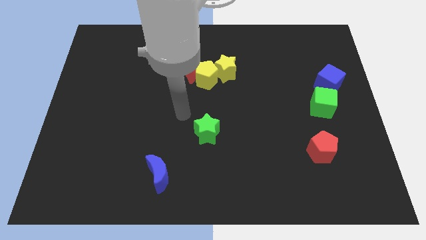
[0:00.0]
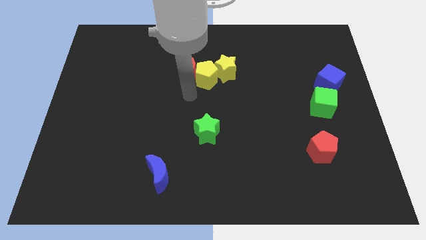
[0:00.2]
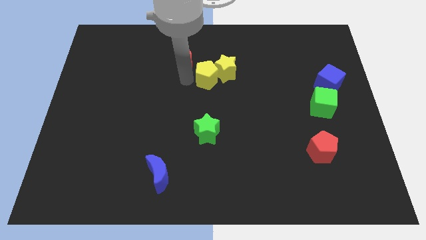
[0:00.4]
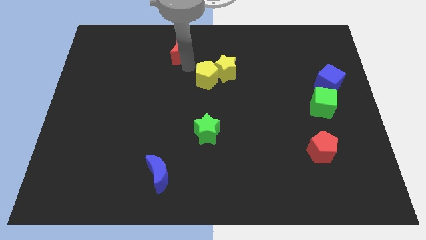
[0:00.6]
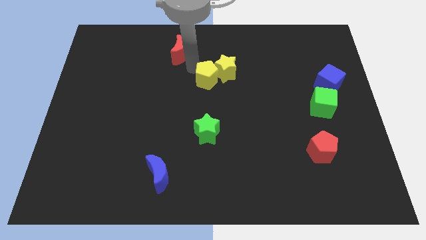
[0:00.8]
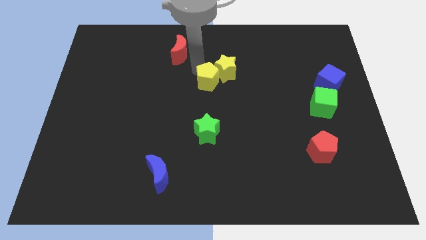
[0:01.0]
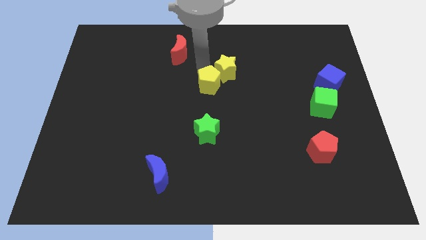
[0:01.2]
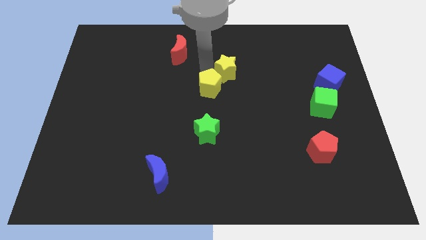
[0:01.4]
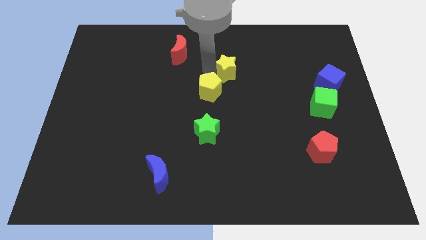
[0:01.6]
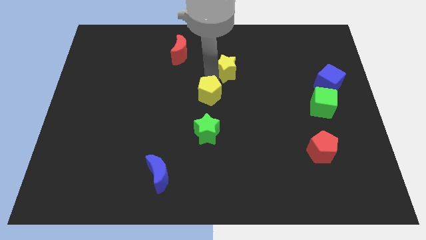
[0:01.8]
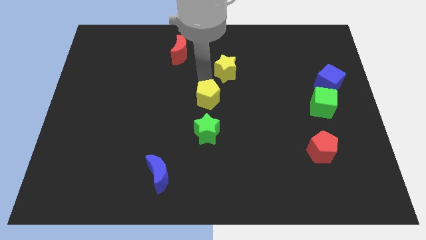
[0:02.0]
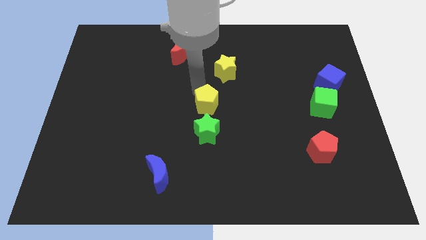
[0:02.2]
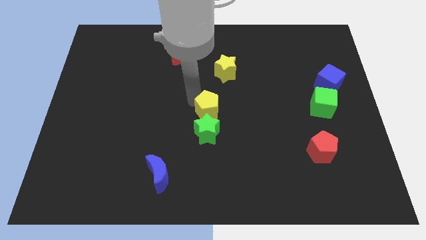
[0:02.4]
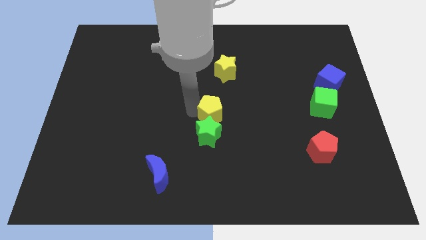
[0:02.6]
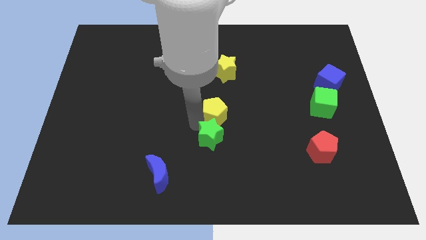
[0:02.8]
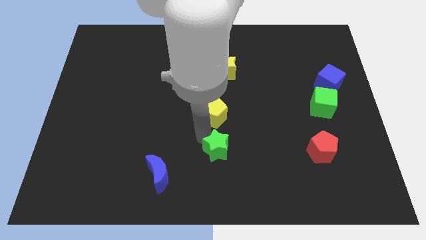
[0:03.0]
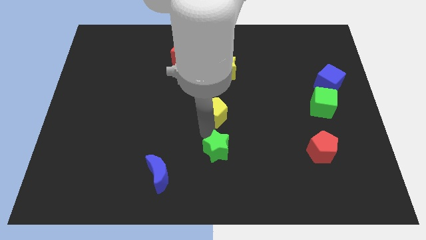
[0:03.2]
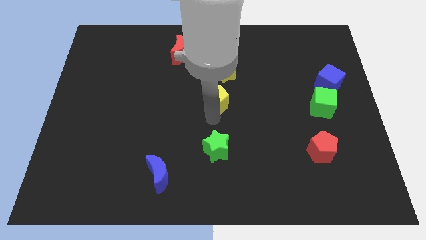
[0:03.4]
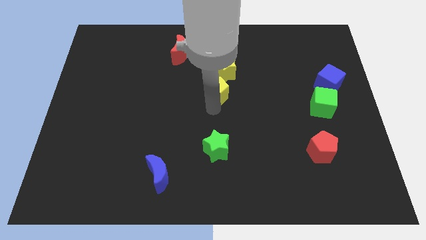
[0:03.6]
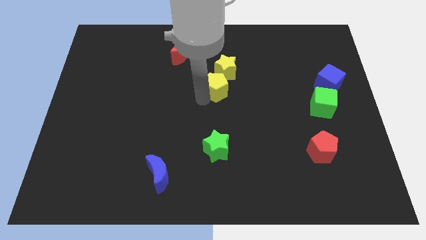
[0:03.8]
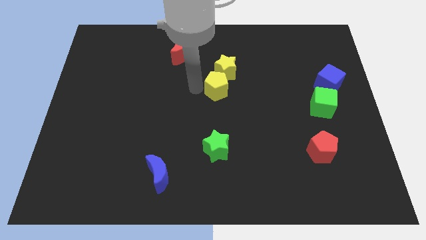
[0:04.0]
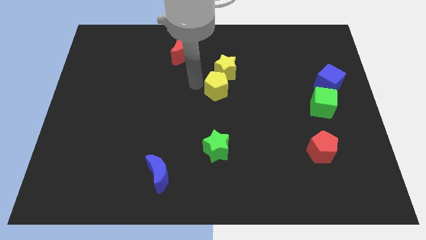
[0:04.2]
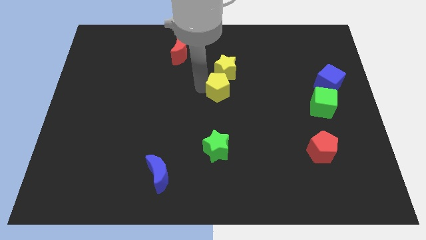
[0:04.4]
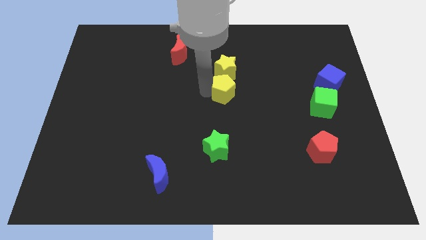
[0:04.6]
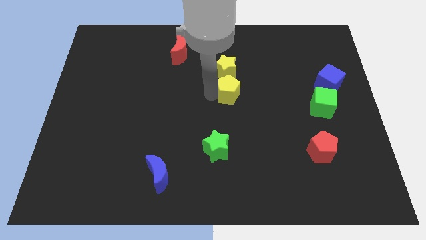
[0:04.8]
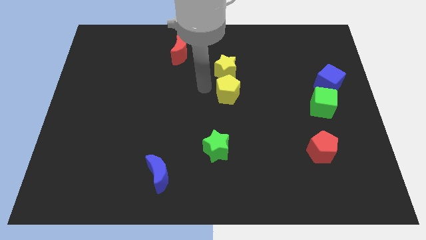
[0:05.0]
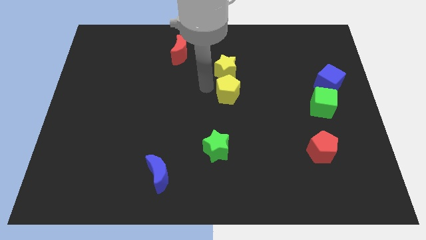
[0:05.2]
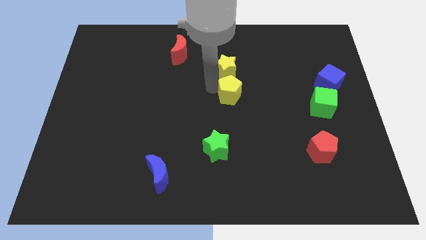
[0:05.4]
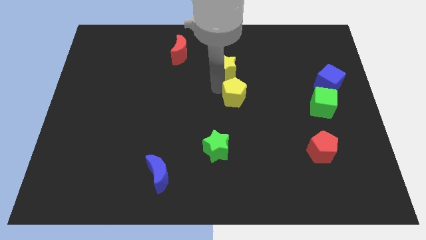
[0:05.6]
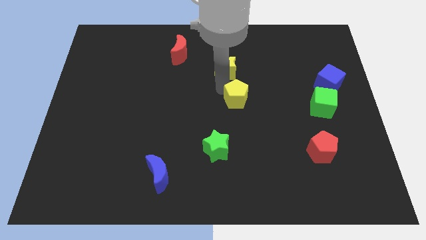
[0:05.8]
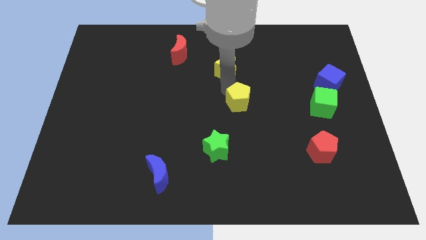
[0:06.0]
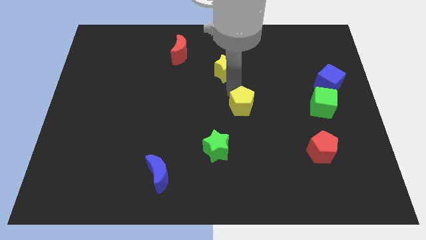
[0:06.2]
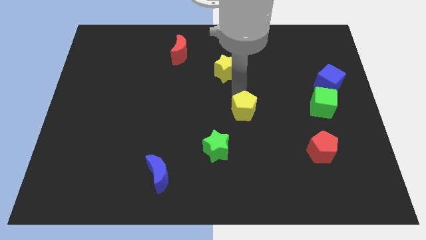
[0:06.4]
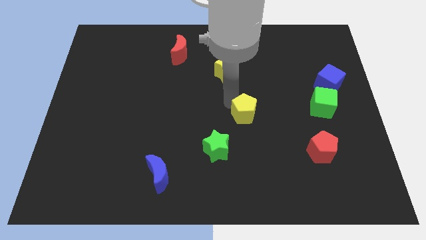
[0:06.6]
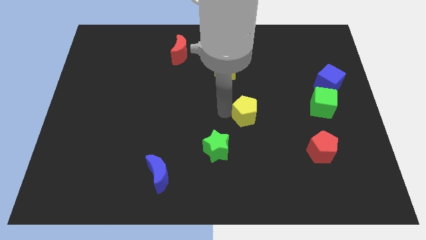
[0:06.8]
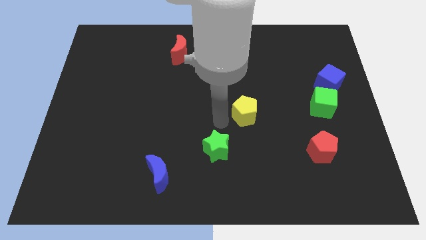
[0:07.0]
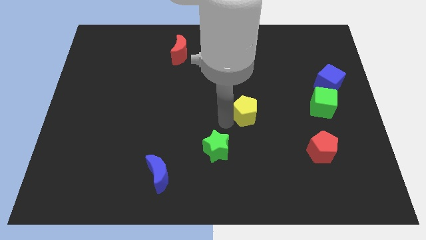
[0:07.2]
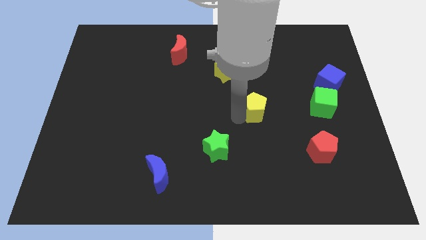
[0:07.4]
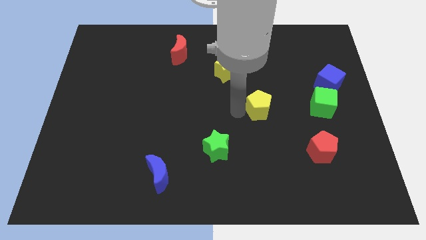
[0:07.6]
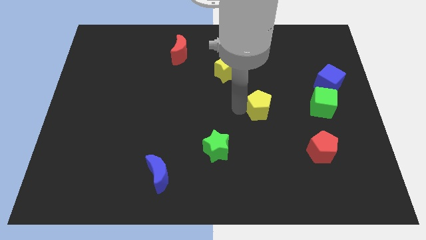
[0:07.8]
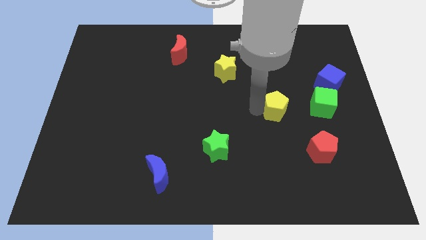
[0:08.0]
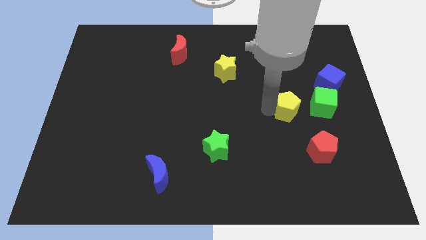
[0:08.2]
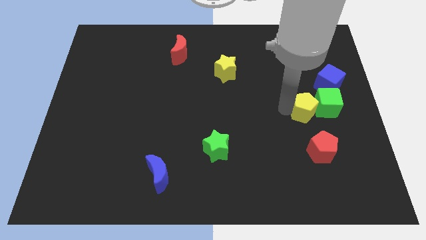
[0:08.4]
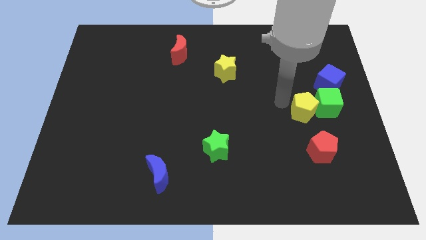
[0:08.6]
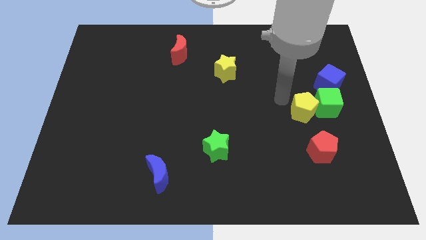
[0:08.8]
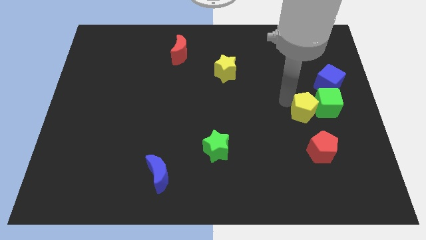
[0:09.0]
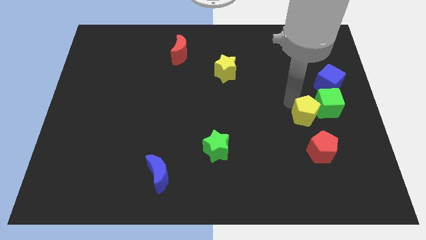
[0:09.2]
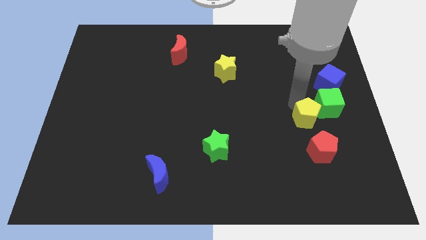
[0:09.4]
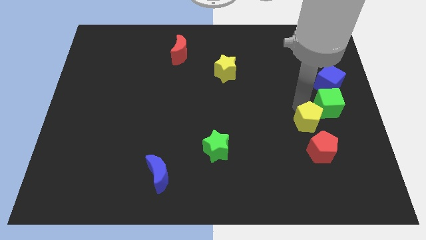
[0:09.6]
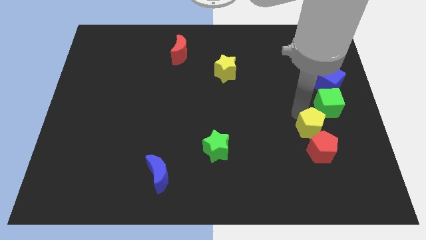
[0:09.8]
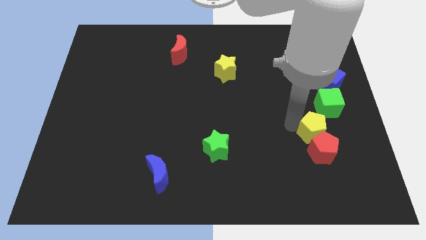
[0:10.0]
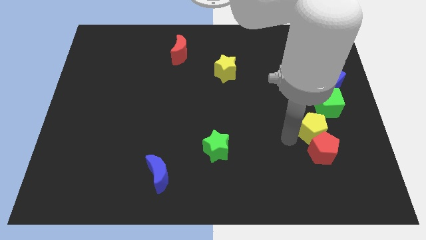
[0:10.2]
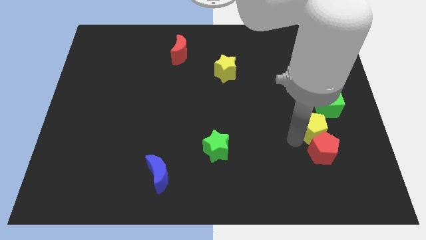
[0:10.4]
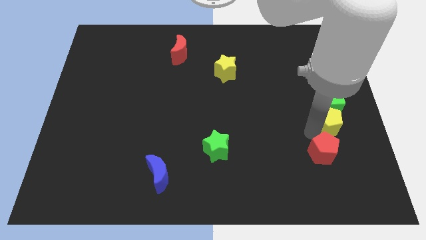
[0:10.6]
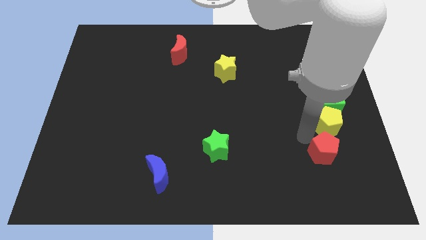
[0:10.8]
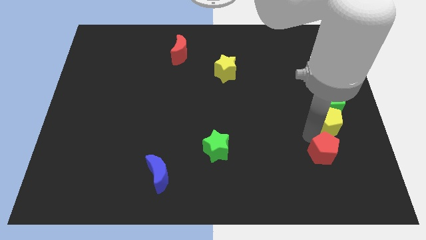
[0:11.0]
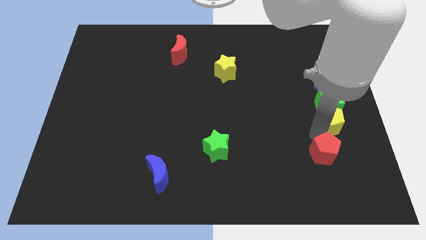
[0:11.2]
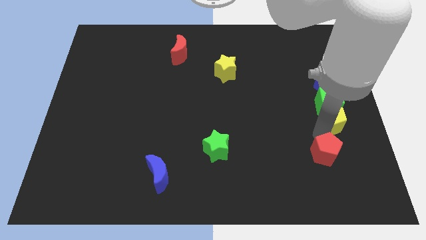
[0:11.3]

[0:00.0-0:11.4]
push the yellow pentagon to the right side of the board

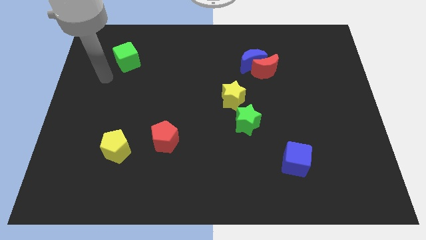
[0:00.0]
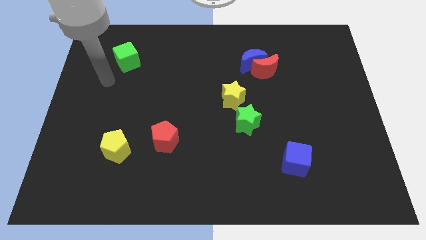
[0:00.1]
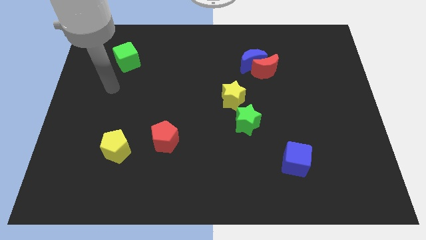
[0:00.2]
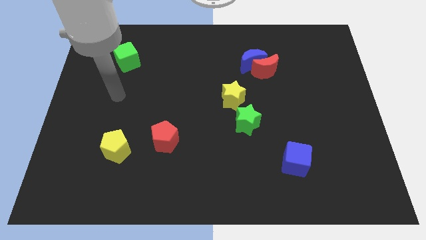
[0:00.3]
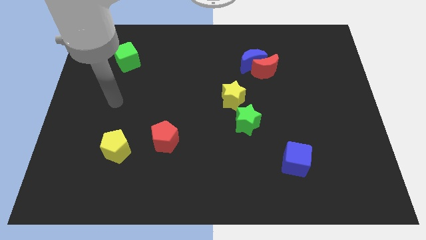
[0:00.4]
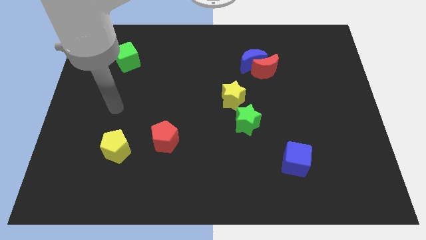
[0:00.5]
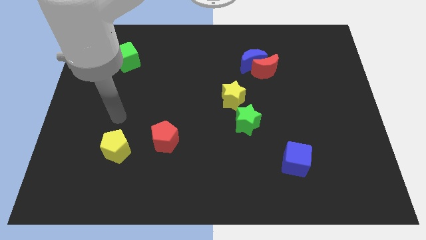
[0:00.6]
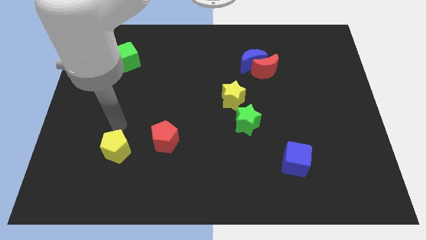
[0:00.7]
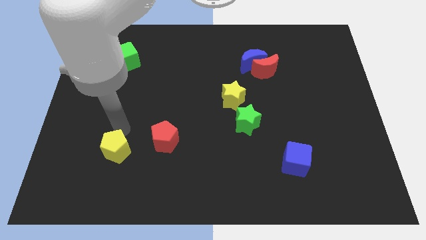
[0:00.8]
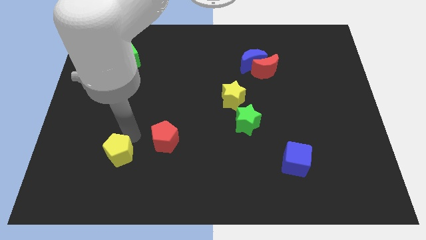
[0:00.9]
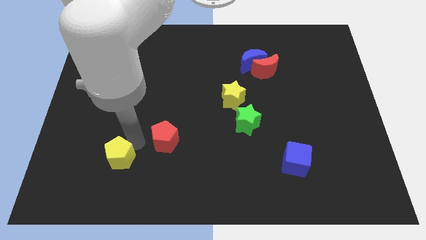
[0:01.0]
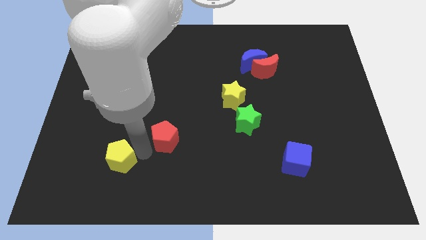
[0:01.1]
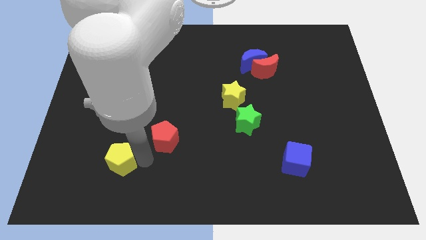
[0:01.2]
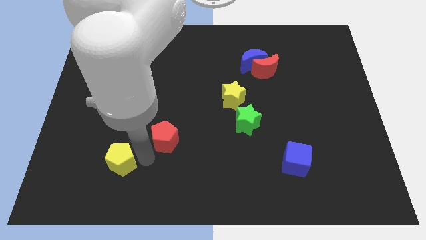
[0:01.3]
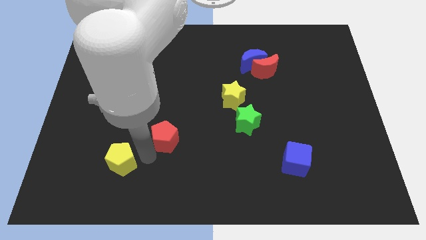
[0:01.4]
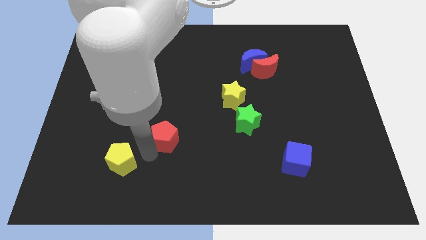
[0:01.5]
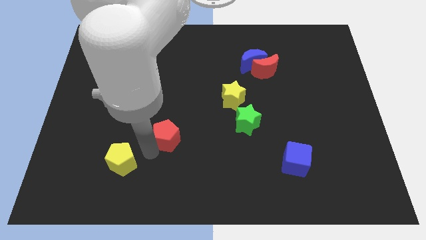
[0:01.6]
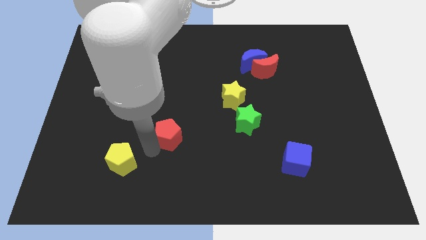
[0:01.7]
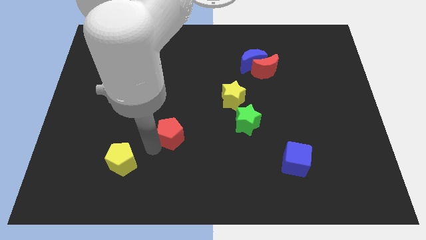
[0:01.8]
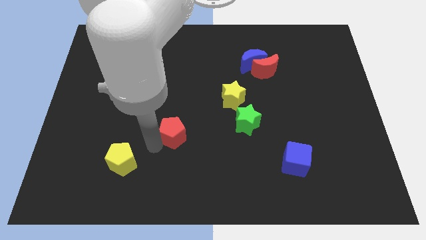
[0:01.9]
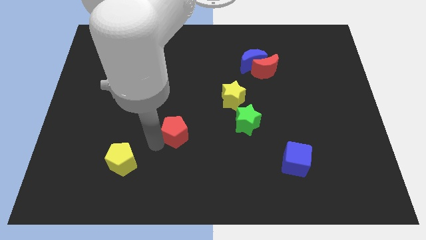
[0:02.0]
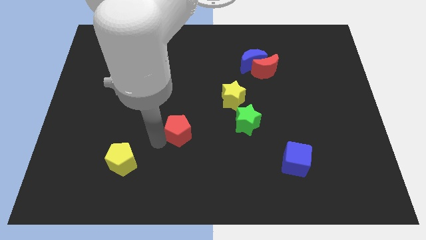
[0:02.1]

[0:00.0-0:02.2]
put the red pentagon to the middle of the board

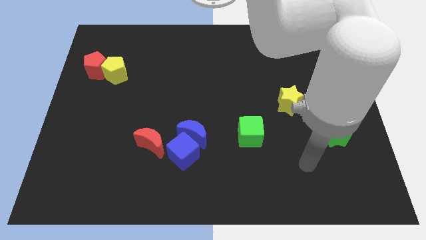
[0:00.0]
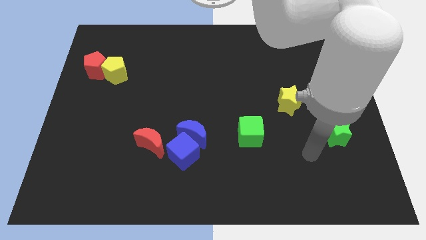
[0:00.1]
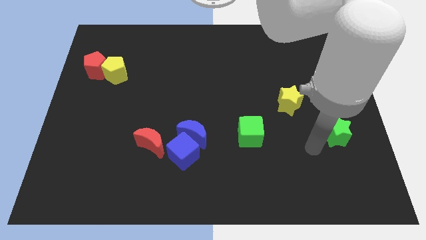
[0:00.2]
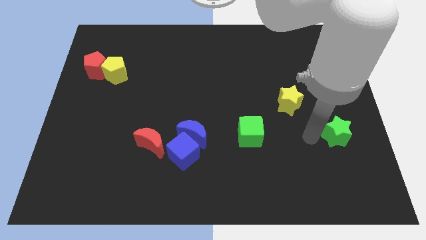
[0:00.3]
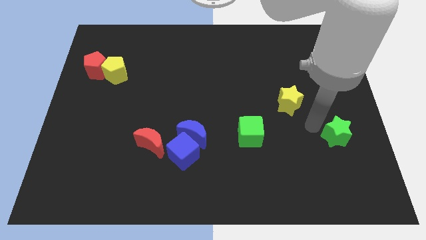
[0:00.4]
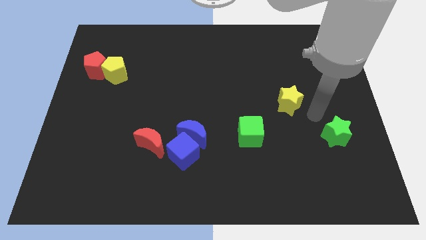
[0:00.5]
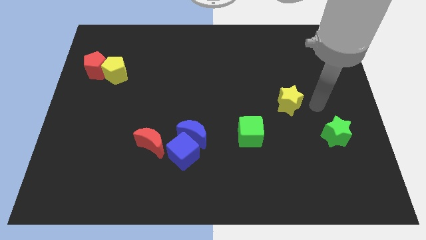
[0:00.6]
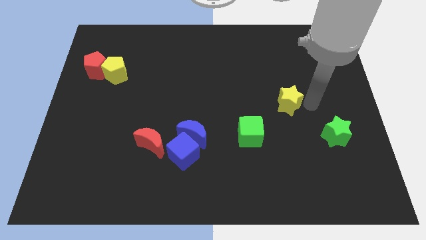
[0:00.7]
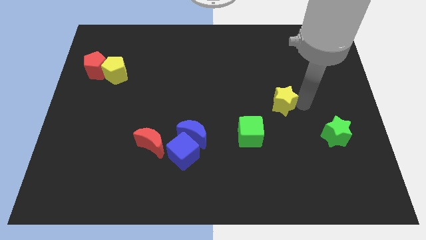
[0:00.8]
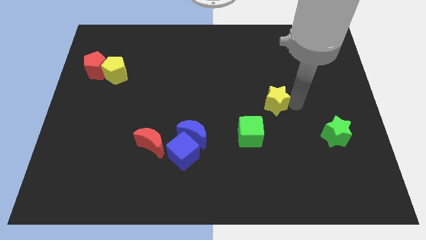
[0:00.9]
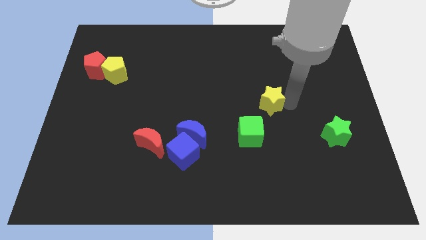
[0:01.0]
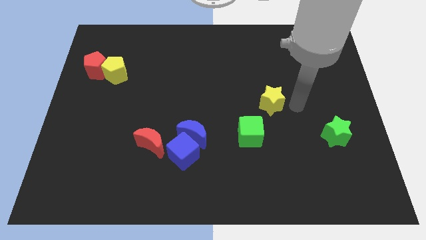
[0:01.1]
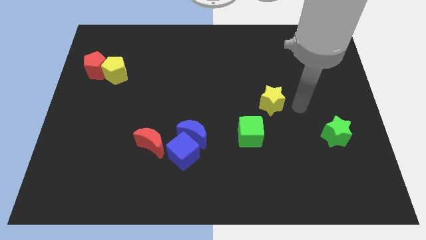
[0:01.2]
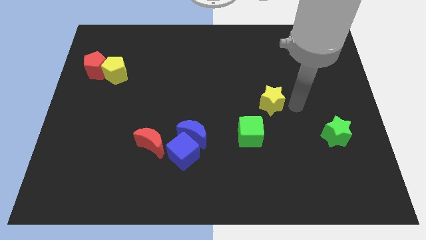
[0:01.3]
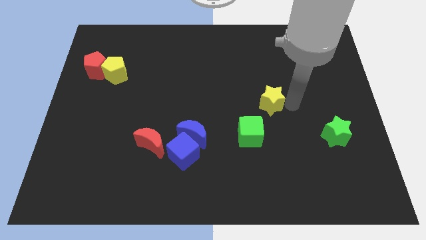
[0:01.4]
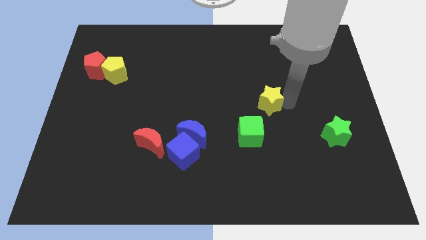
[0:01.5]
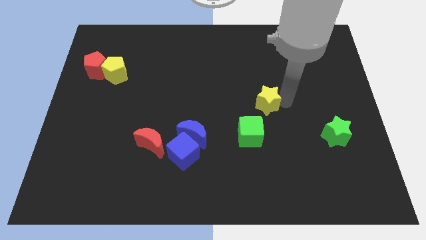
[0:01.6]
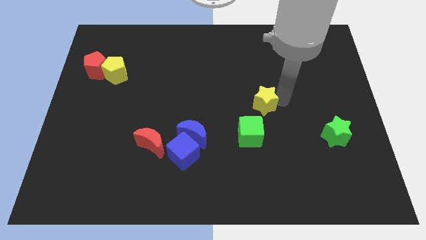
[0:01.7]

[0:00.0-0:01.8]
slide the yellow star to the middle of the board
